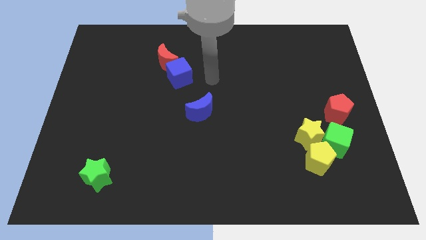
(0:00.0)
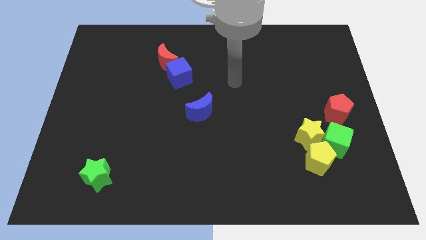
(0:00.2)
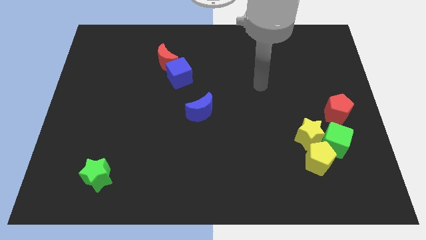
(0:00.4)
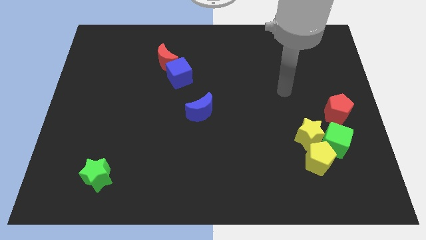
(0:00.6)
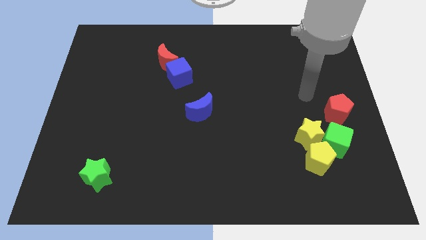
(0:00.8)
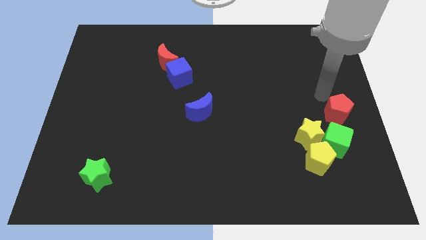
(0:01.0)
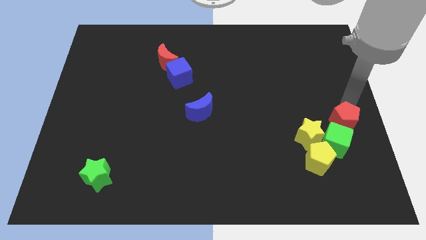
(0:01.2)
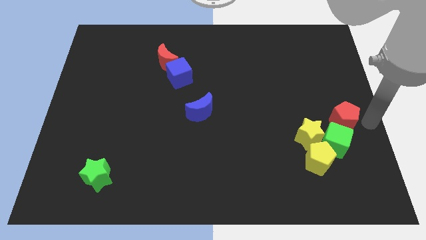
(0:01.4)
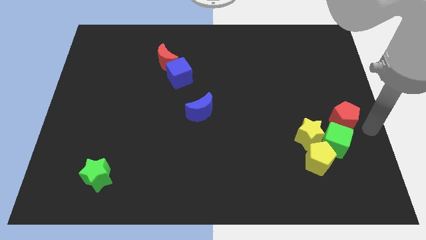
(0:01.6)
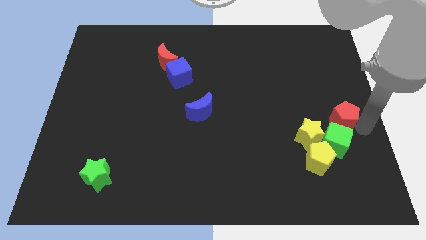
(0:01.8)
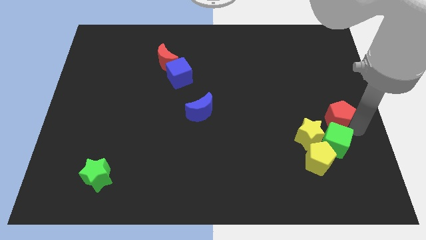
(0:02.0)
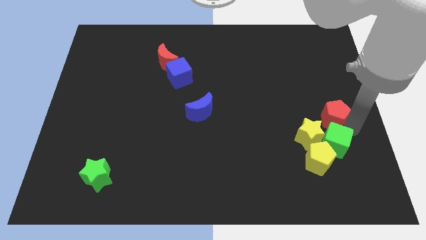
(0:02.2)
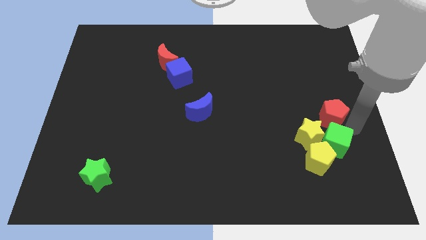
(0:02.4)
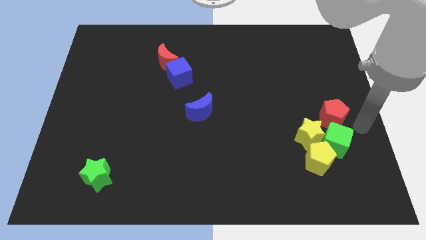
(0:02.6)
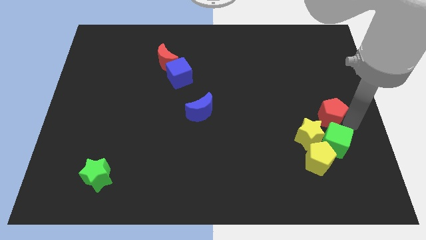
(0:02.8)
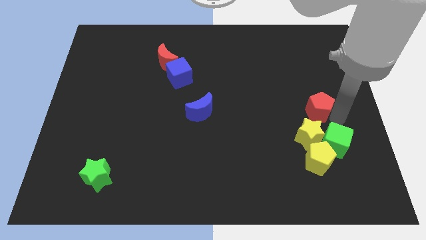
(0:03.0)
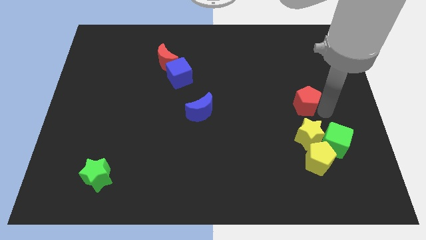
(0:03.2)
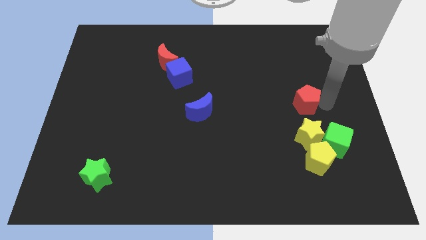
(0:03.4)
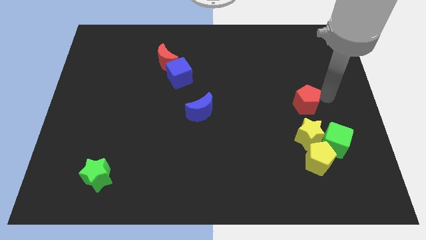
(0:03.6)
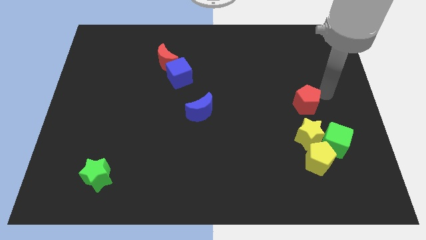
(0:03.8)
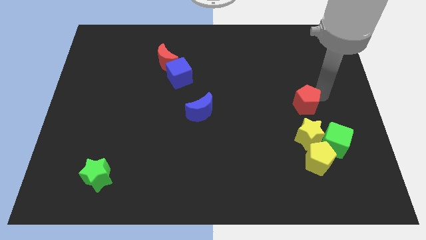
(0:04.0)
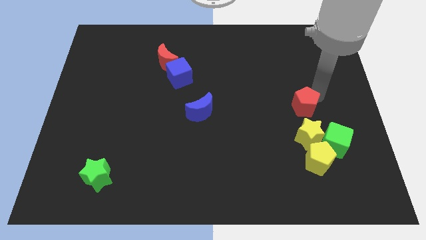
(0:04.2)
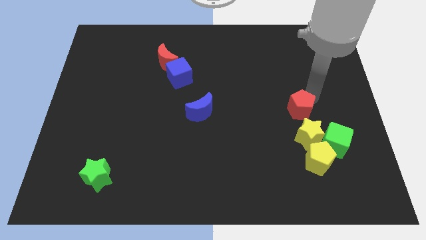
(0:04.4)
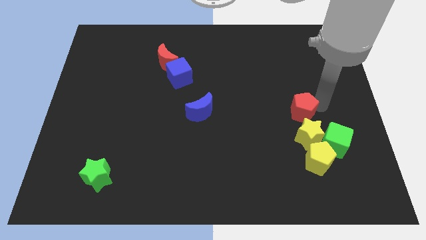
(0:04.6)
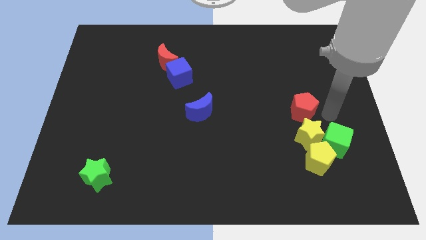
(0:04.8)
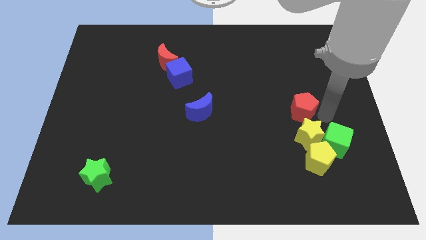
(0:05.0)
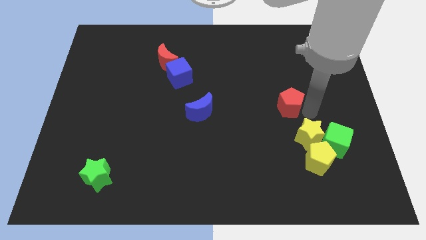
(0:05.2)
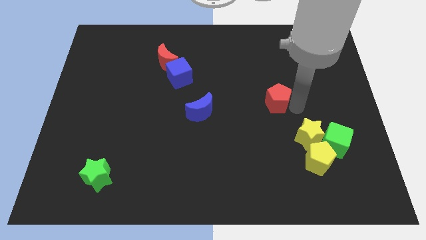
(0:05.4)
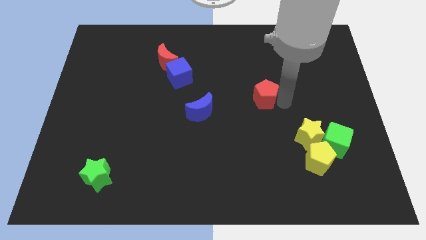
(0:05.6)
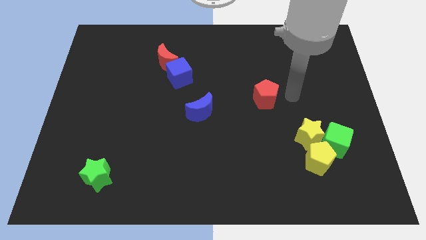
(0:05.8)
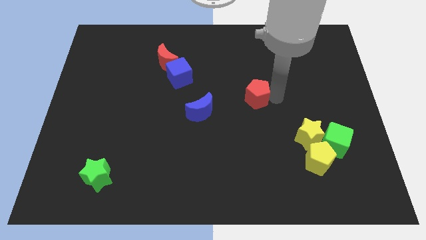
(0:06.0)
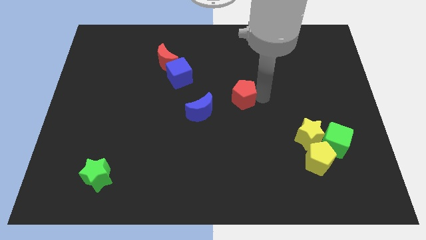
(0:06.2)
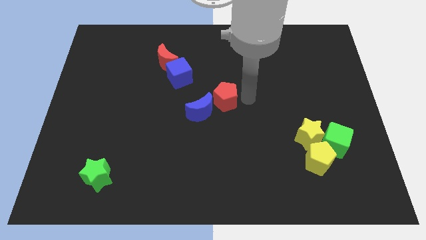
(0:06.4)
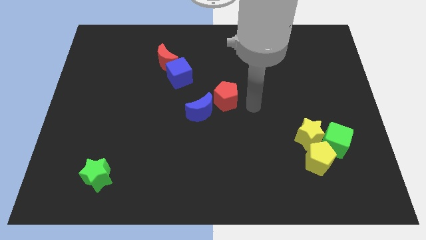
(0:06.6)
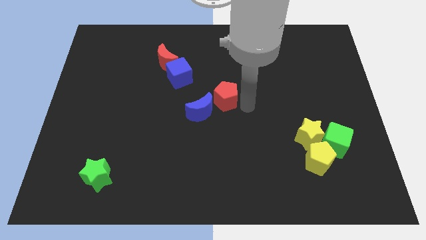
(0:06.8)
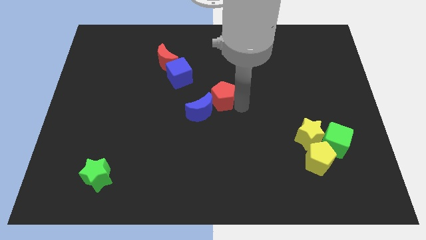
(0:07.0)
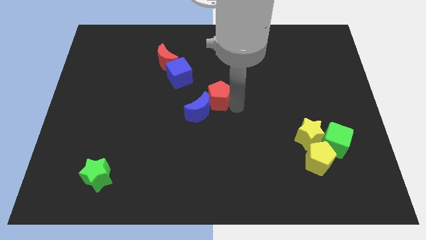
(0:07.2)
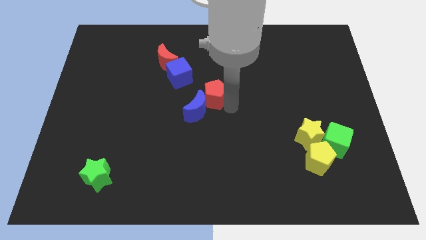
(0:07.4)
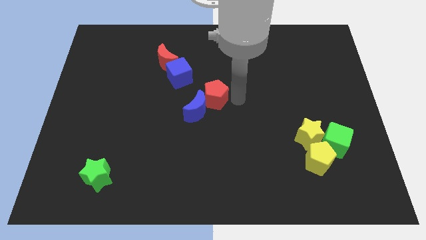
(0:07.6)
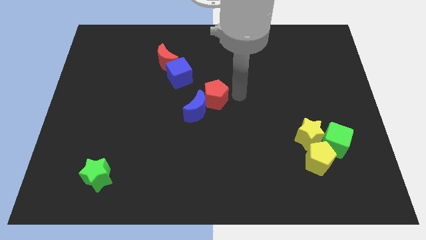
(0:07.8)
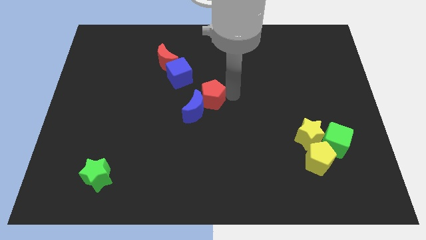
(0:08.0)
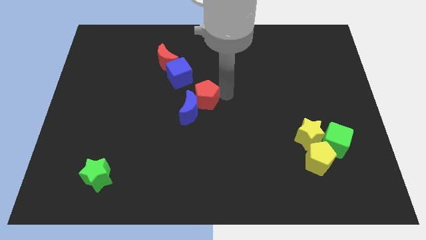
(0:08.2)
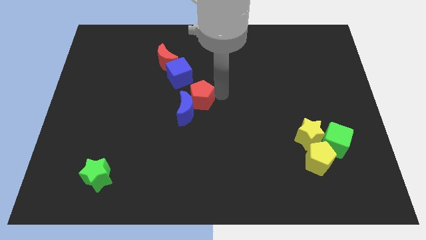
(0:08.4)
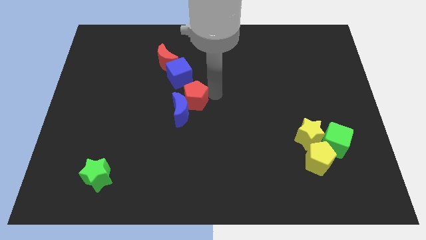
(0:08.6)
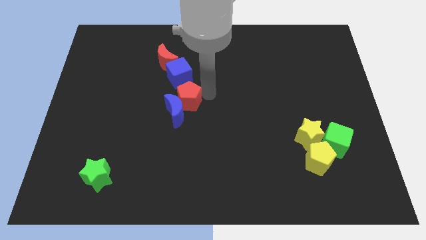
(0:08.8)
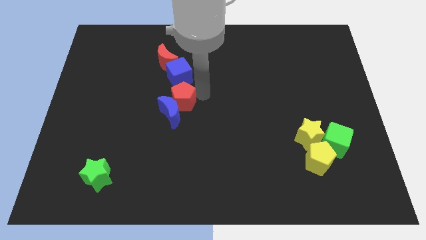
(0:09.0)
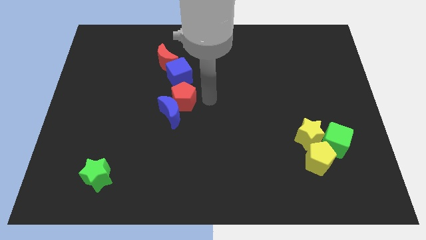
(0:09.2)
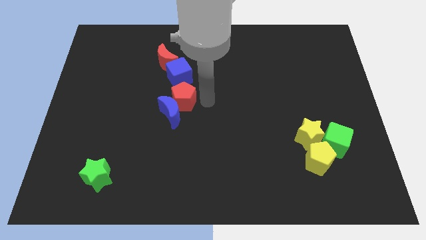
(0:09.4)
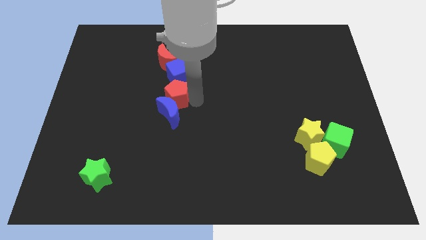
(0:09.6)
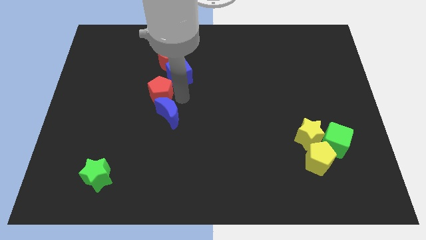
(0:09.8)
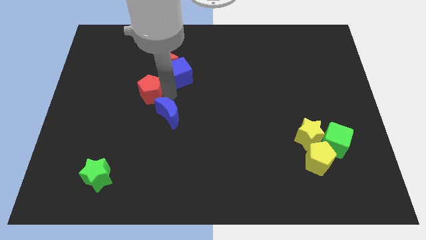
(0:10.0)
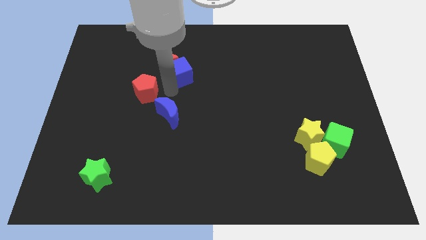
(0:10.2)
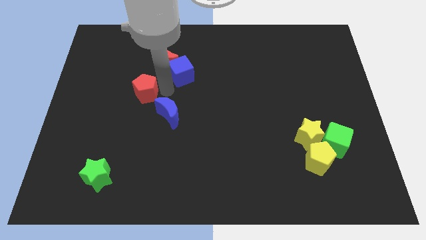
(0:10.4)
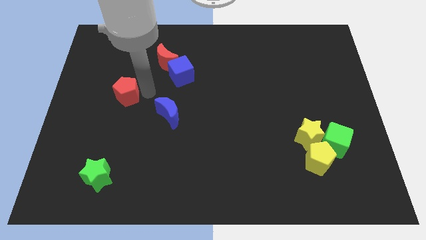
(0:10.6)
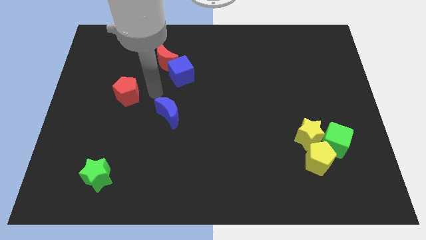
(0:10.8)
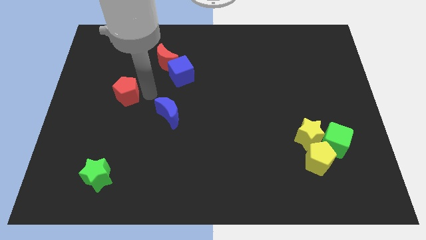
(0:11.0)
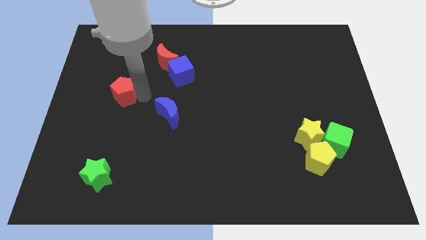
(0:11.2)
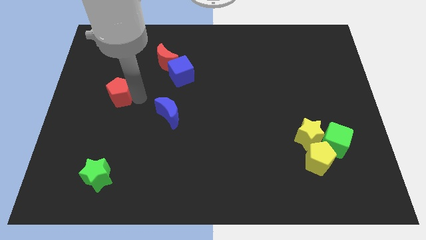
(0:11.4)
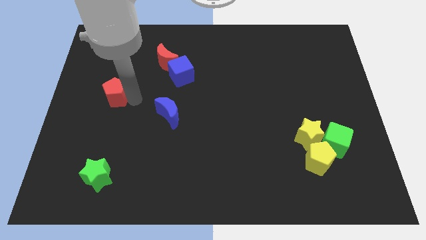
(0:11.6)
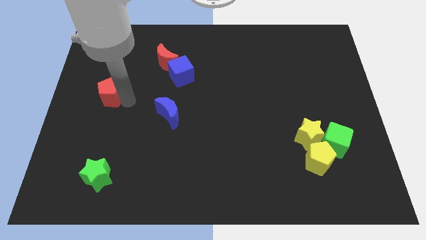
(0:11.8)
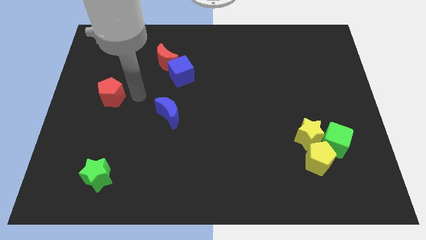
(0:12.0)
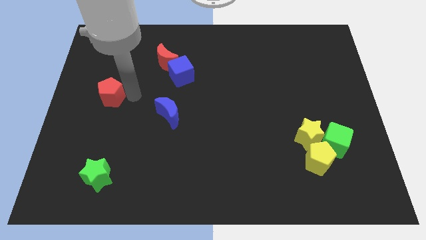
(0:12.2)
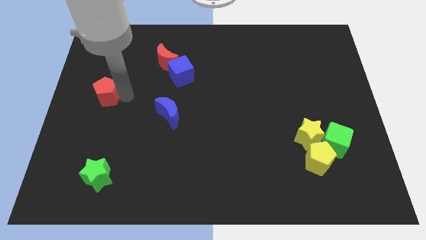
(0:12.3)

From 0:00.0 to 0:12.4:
move the red pentagon to the left side of the board

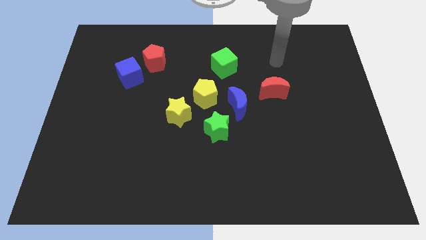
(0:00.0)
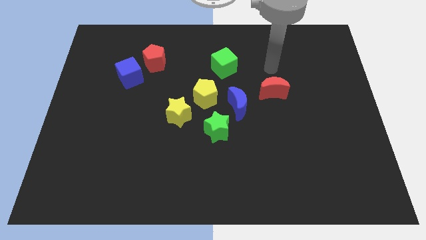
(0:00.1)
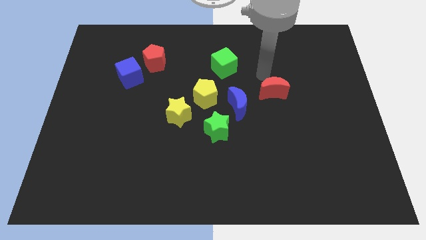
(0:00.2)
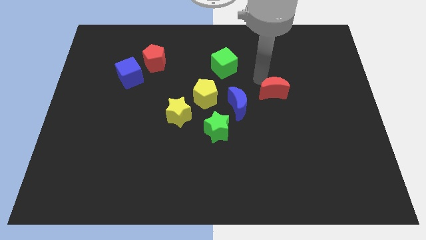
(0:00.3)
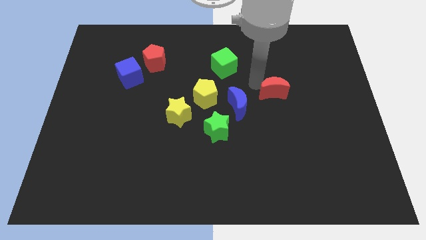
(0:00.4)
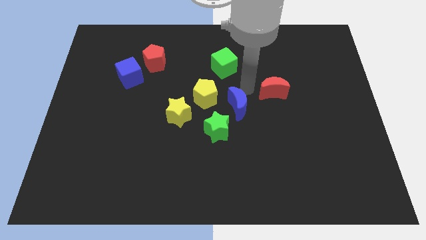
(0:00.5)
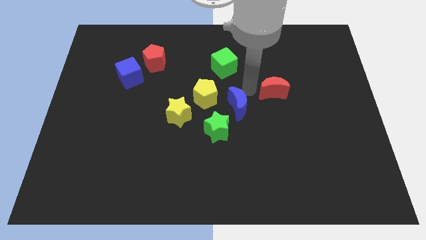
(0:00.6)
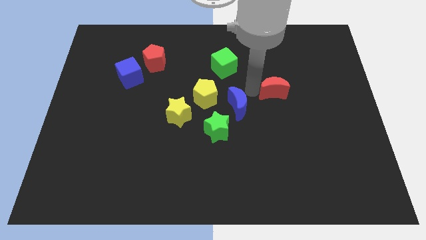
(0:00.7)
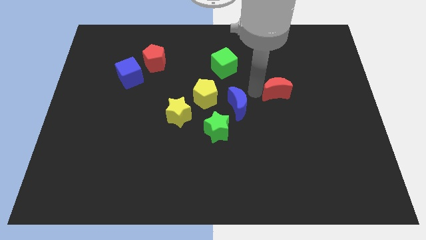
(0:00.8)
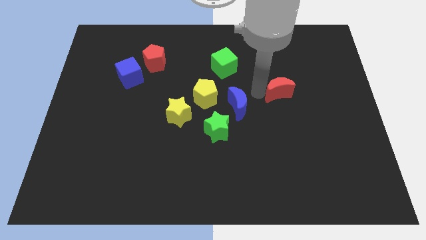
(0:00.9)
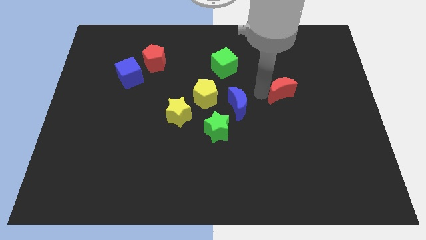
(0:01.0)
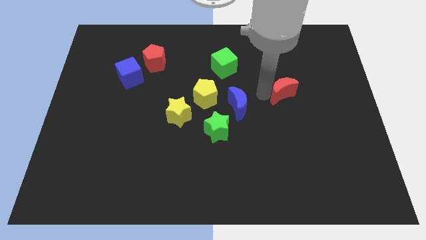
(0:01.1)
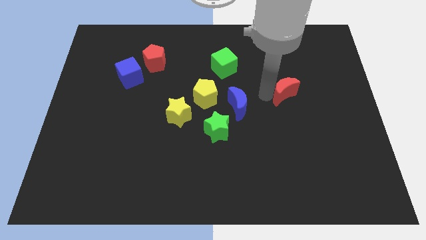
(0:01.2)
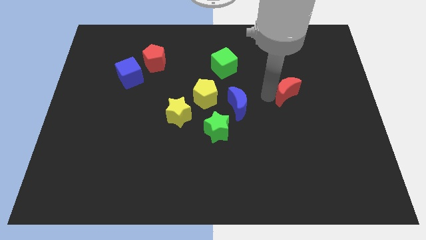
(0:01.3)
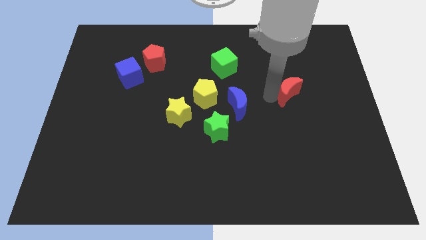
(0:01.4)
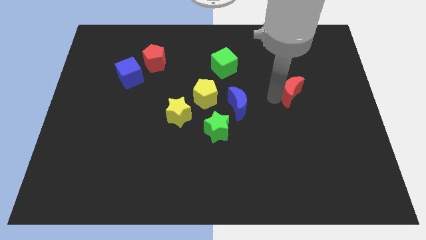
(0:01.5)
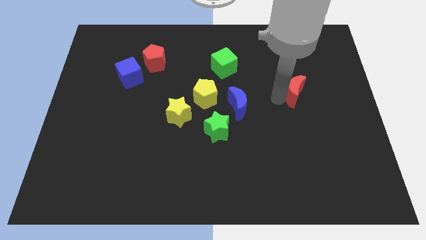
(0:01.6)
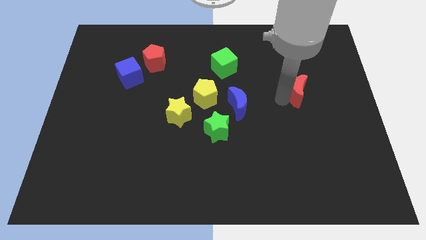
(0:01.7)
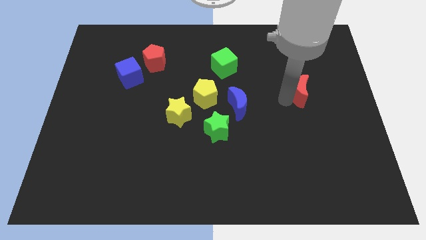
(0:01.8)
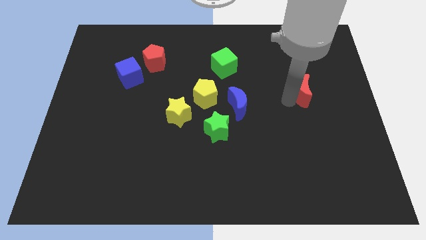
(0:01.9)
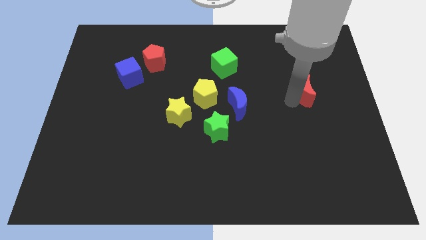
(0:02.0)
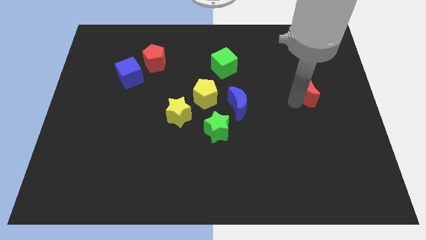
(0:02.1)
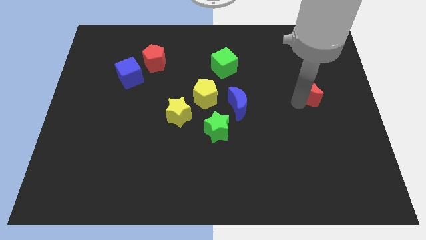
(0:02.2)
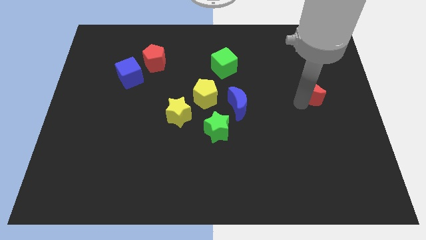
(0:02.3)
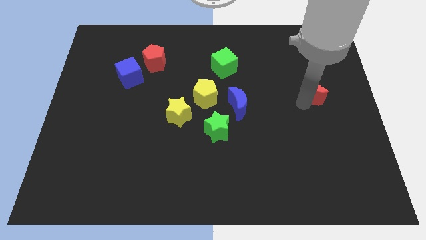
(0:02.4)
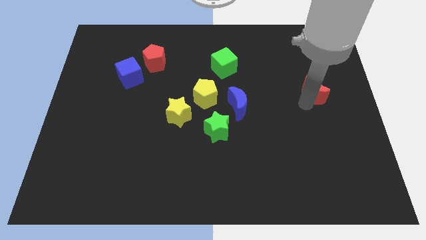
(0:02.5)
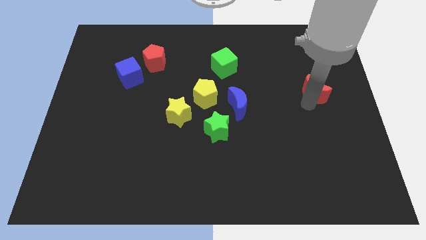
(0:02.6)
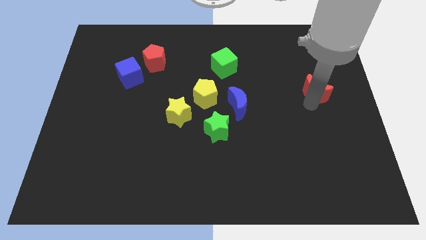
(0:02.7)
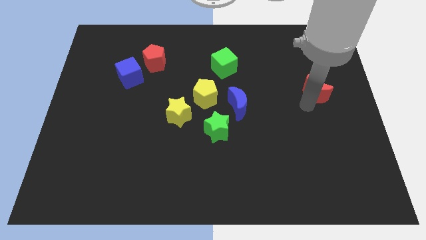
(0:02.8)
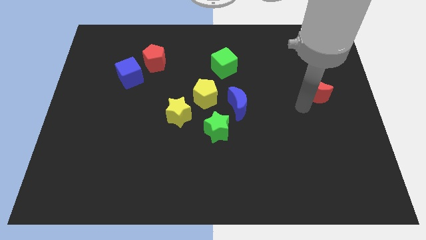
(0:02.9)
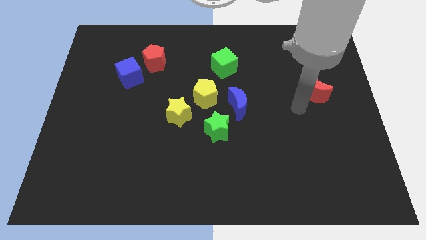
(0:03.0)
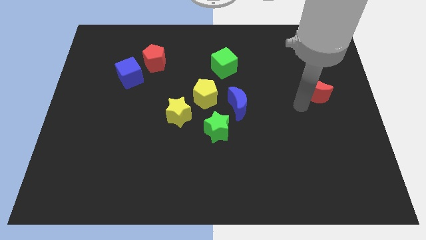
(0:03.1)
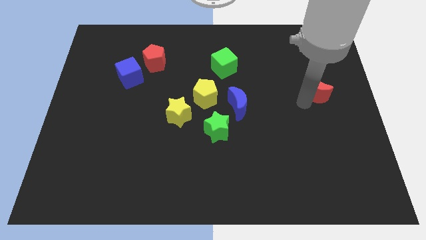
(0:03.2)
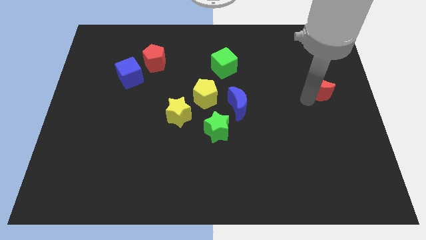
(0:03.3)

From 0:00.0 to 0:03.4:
push the red moon to the right side of the board
